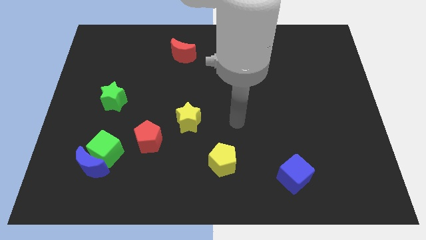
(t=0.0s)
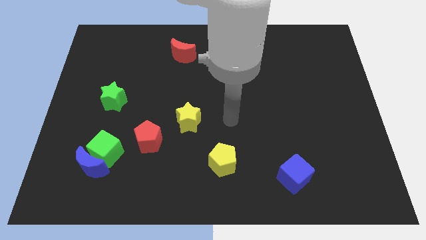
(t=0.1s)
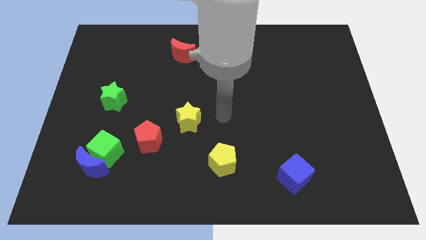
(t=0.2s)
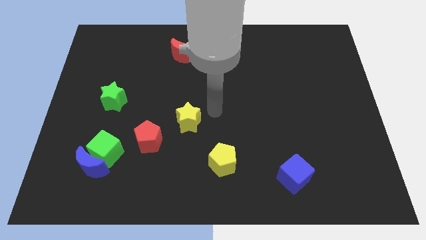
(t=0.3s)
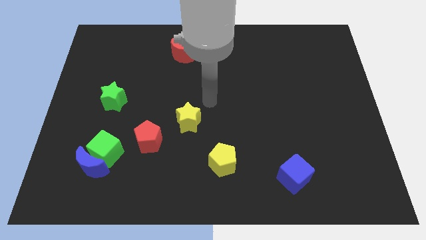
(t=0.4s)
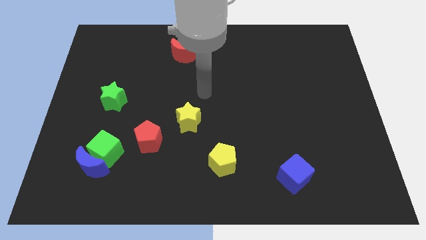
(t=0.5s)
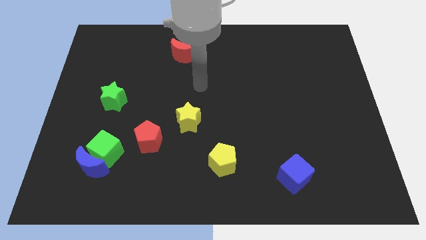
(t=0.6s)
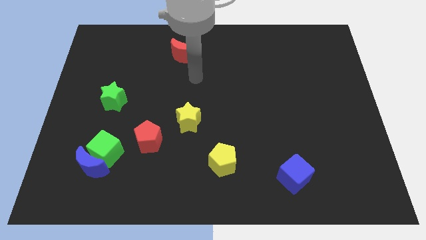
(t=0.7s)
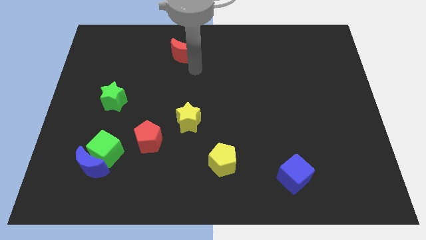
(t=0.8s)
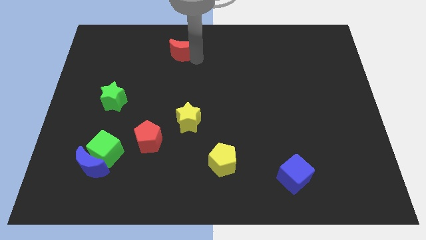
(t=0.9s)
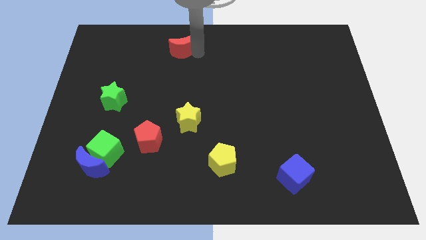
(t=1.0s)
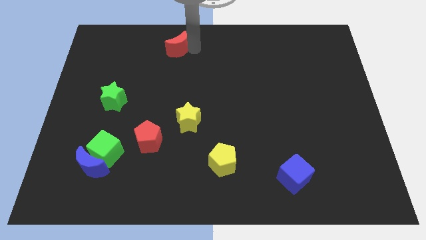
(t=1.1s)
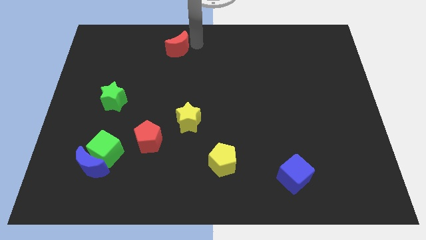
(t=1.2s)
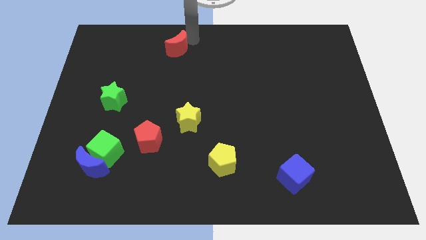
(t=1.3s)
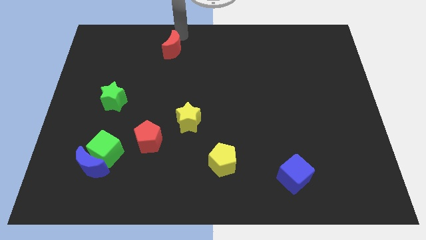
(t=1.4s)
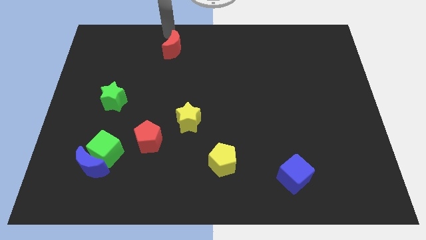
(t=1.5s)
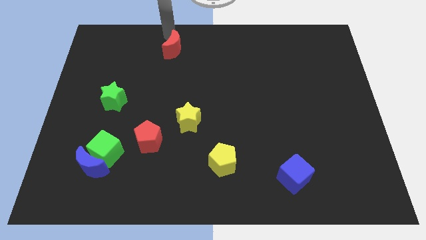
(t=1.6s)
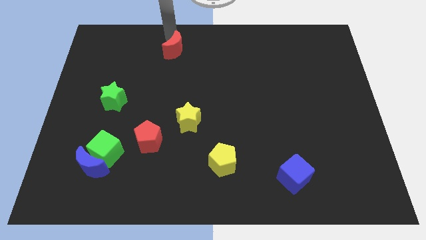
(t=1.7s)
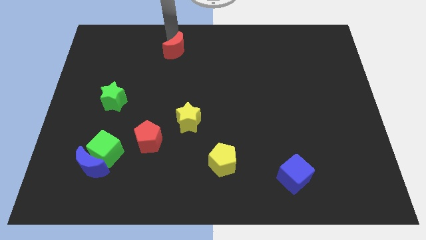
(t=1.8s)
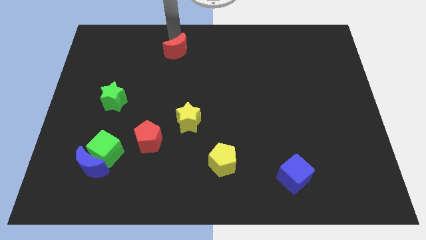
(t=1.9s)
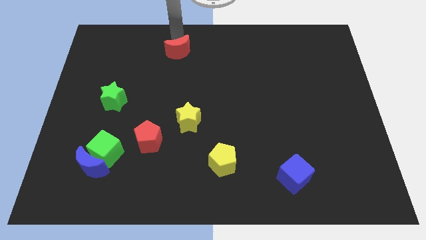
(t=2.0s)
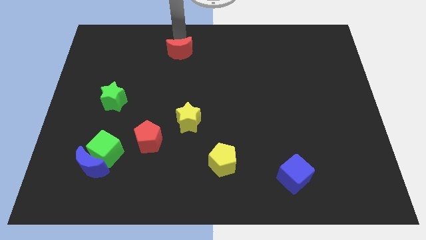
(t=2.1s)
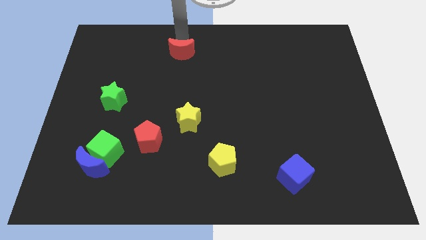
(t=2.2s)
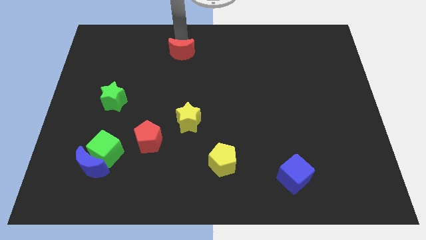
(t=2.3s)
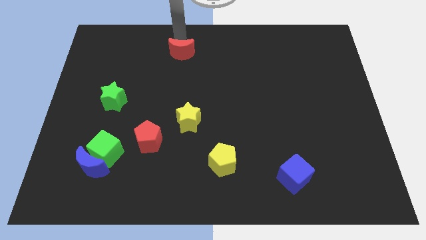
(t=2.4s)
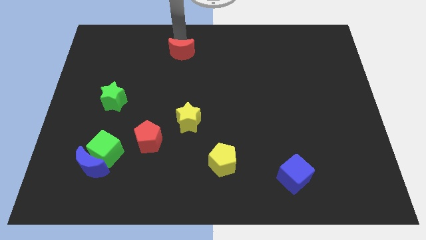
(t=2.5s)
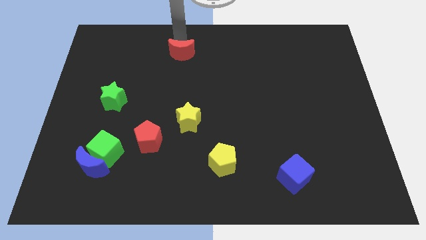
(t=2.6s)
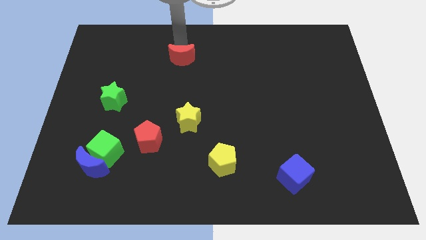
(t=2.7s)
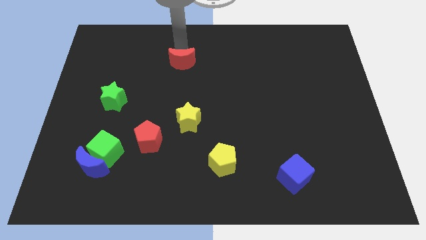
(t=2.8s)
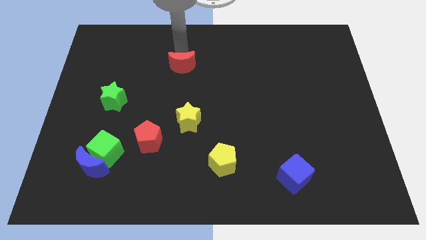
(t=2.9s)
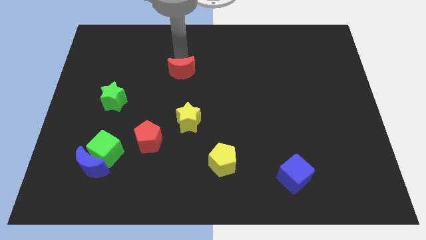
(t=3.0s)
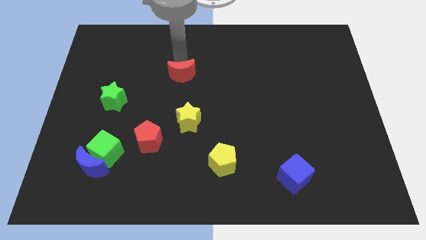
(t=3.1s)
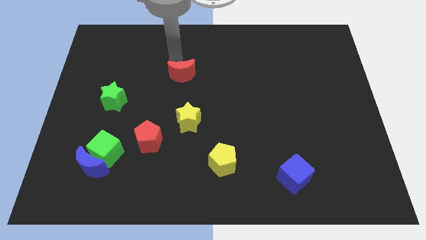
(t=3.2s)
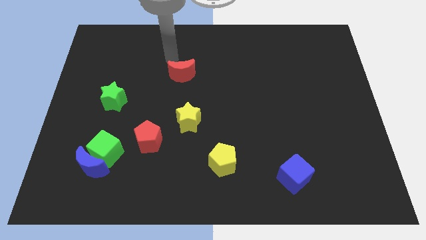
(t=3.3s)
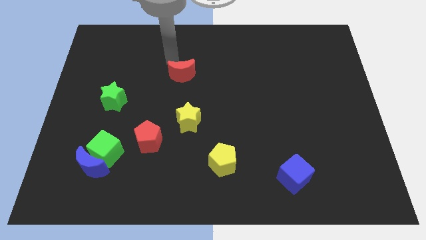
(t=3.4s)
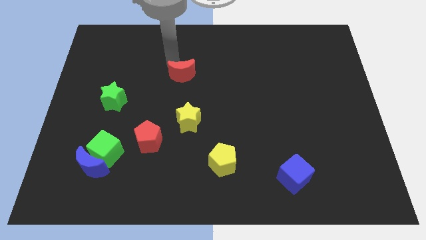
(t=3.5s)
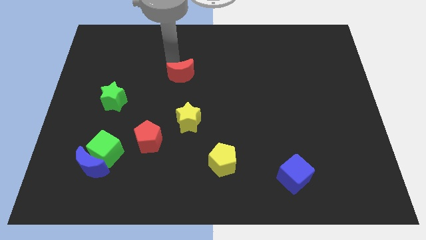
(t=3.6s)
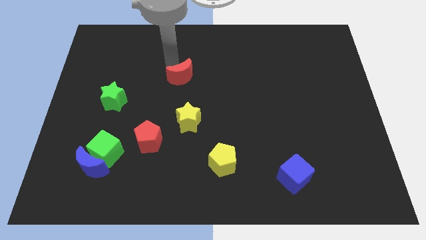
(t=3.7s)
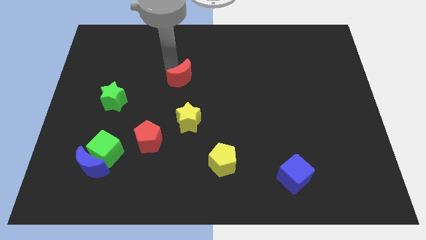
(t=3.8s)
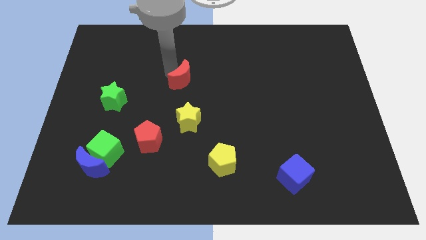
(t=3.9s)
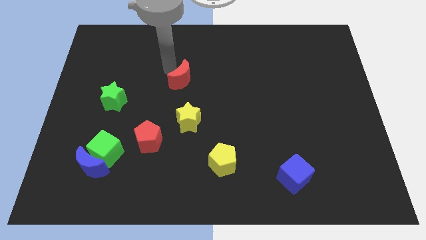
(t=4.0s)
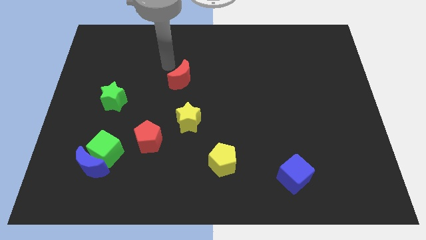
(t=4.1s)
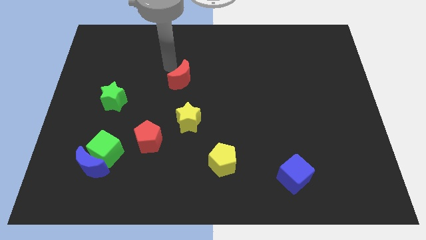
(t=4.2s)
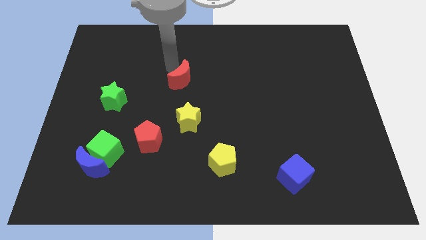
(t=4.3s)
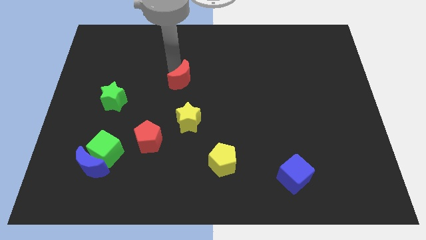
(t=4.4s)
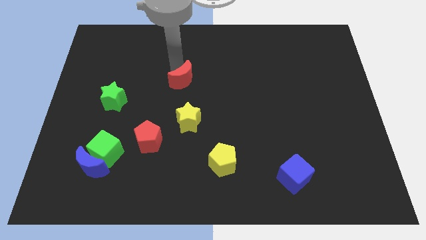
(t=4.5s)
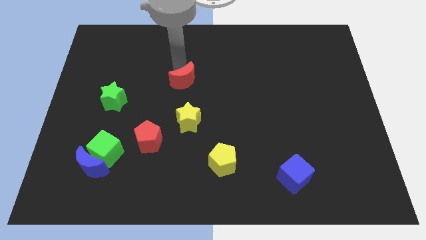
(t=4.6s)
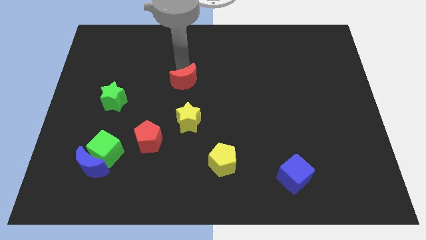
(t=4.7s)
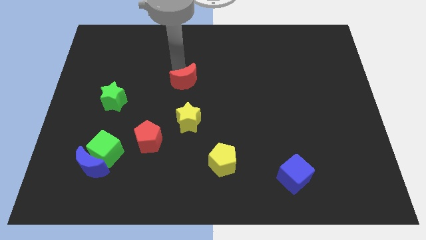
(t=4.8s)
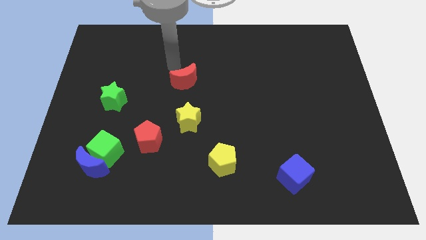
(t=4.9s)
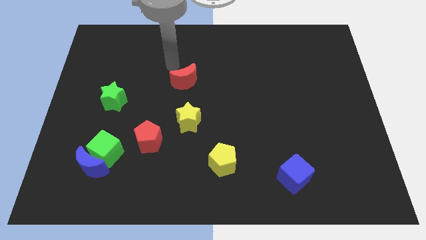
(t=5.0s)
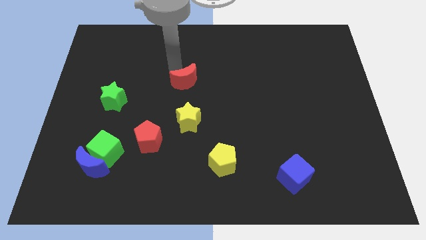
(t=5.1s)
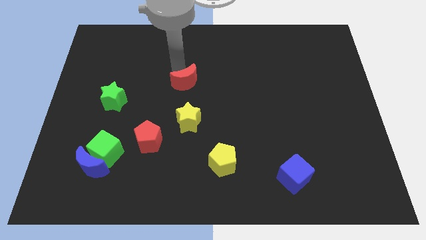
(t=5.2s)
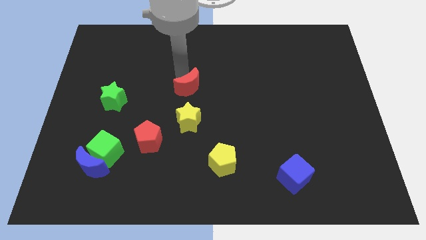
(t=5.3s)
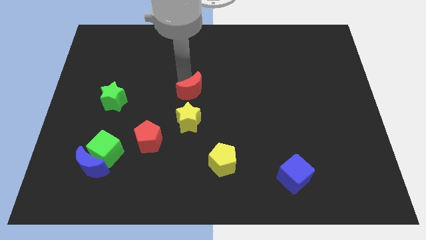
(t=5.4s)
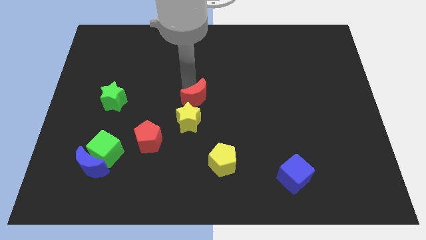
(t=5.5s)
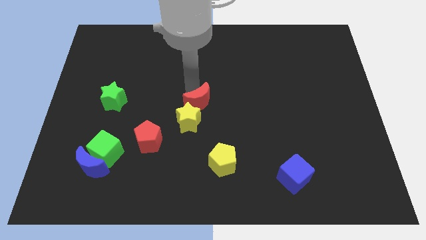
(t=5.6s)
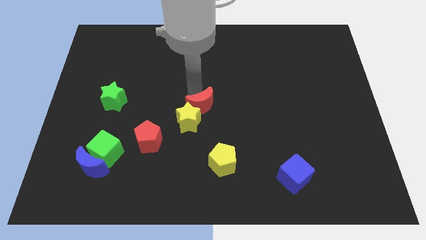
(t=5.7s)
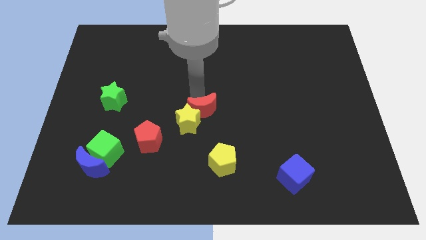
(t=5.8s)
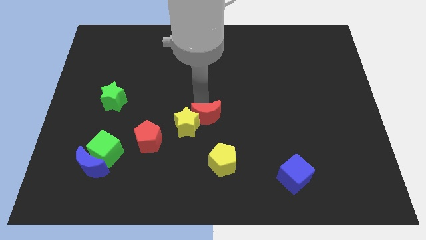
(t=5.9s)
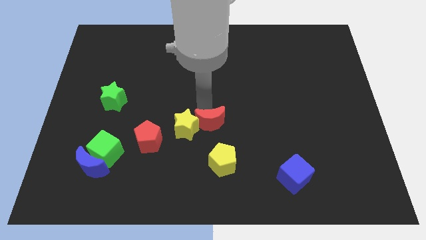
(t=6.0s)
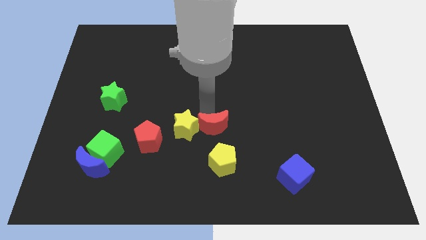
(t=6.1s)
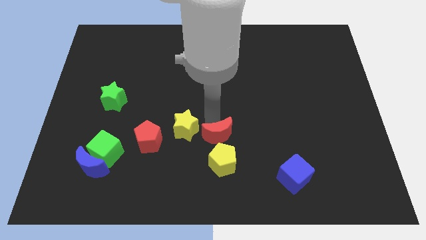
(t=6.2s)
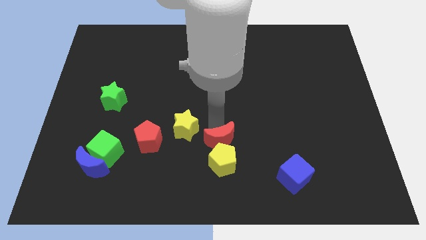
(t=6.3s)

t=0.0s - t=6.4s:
put the red moon towards the yellow pentagon
